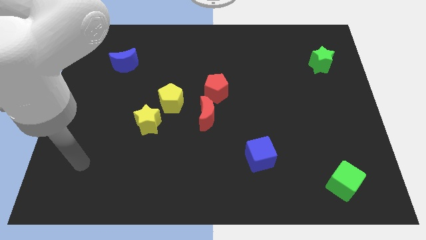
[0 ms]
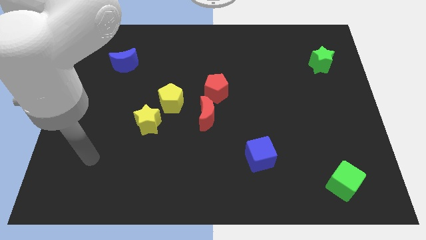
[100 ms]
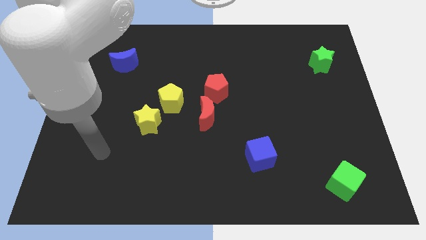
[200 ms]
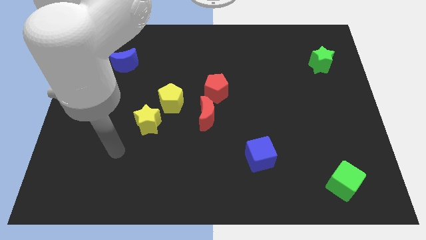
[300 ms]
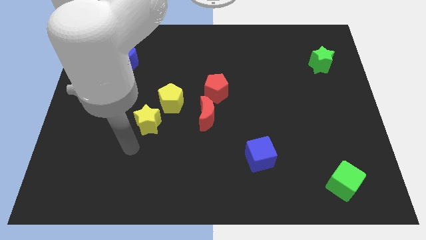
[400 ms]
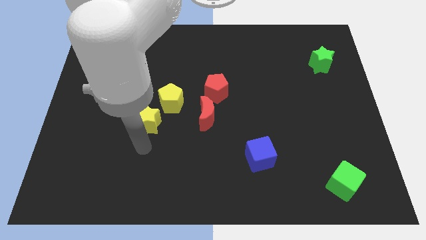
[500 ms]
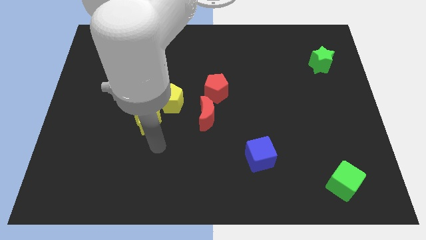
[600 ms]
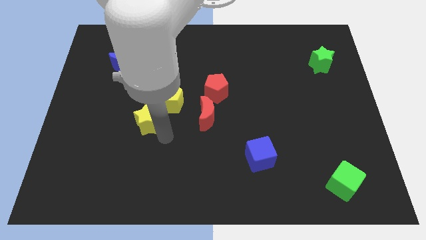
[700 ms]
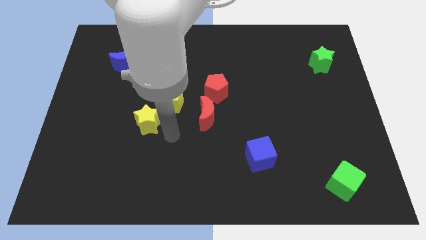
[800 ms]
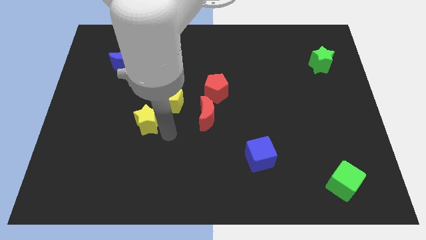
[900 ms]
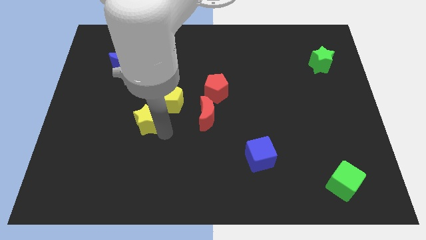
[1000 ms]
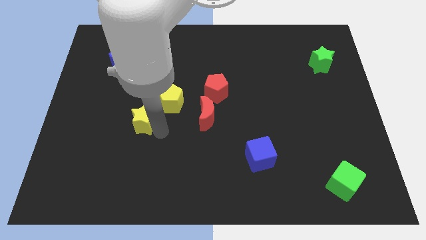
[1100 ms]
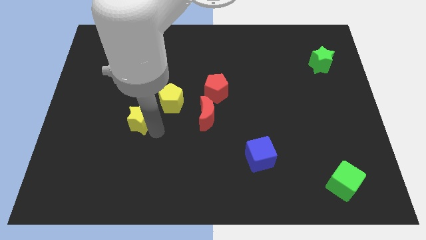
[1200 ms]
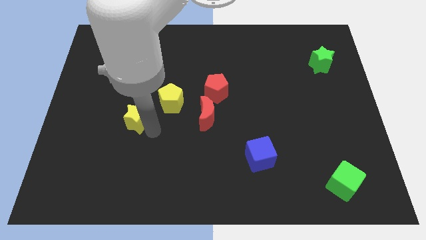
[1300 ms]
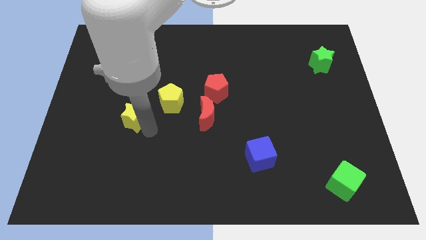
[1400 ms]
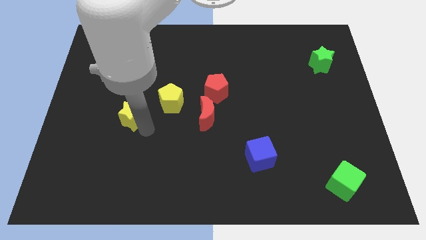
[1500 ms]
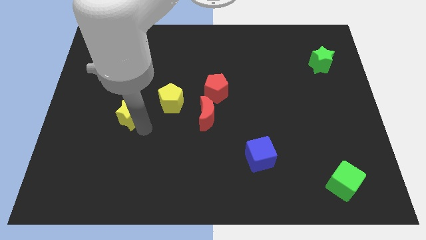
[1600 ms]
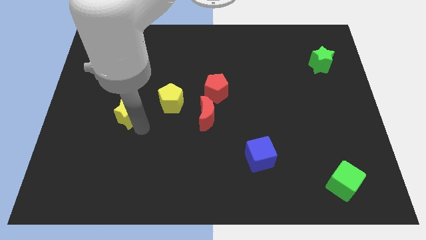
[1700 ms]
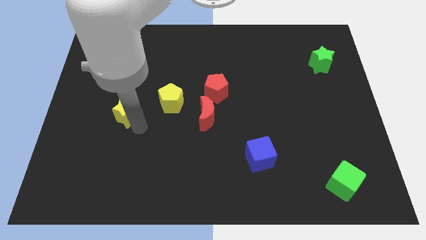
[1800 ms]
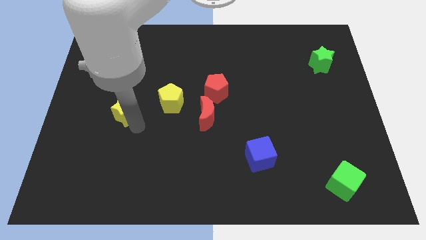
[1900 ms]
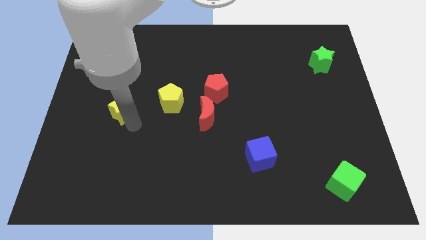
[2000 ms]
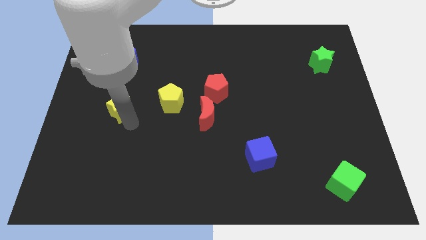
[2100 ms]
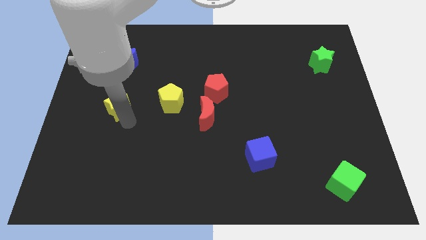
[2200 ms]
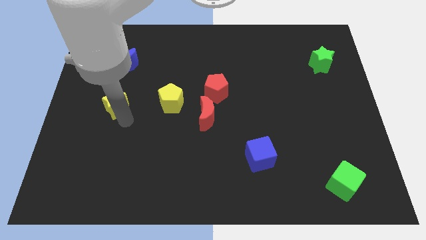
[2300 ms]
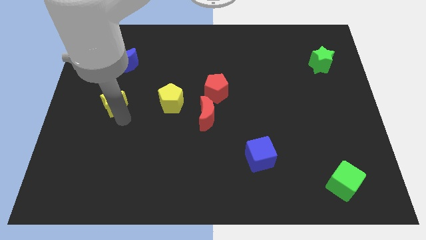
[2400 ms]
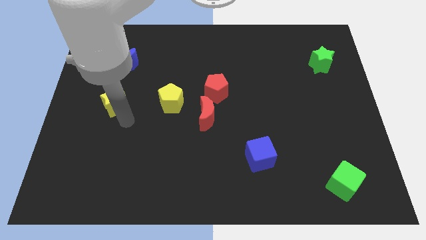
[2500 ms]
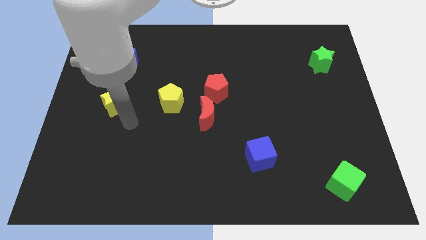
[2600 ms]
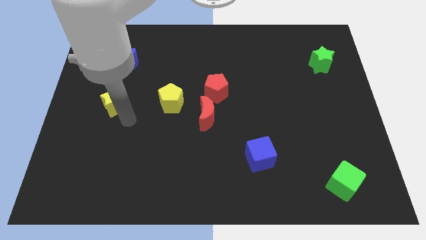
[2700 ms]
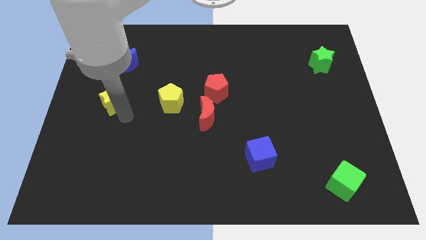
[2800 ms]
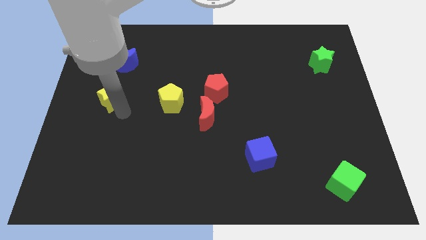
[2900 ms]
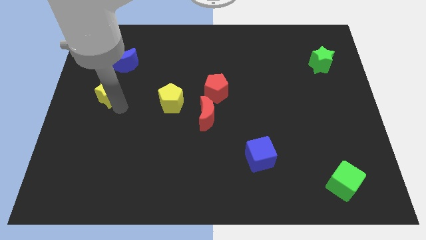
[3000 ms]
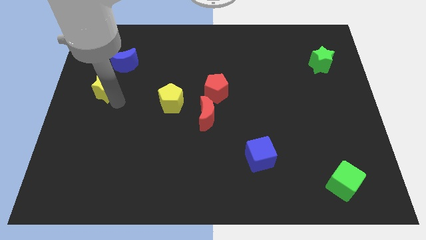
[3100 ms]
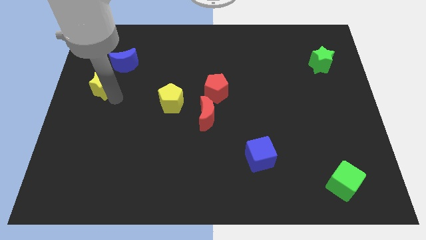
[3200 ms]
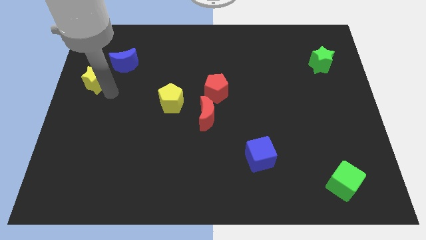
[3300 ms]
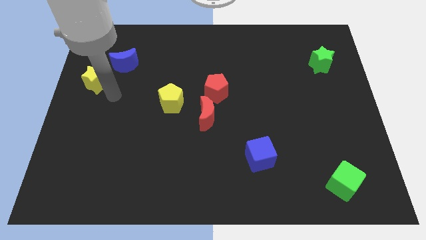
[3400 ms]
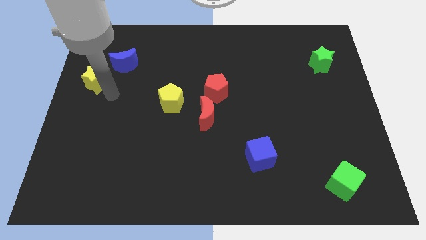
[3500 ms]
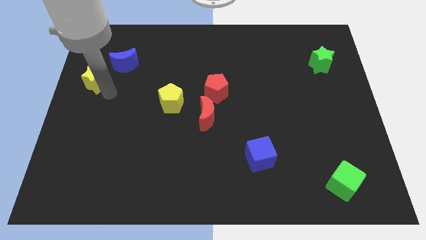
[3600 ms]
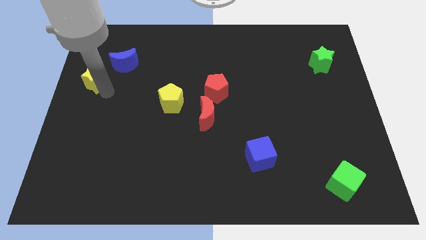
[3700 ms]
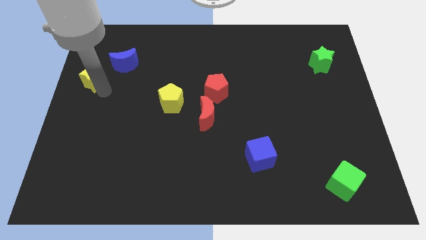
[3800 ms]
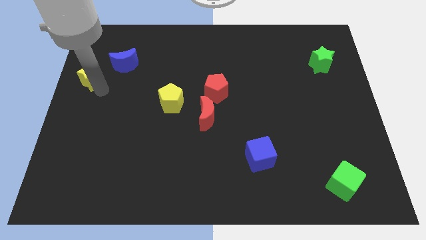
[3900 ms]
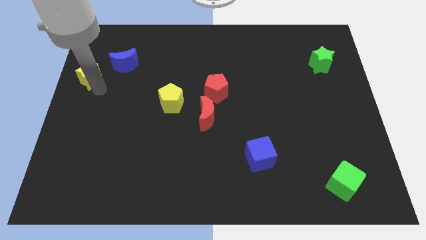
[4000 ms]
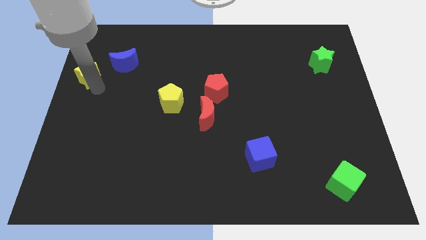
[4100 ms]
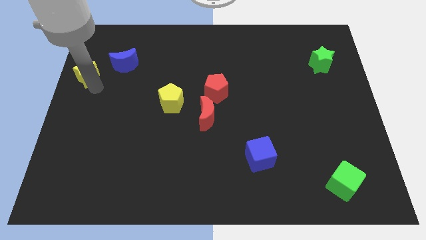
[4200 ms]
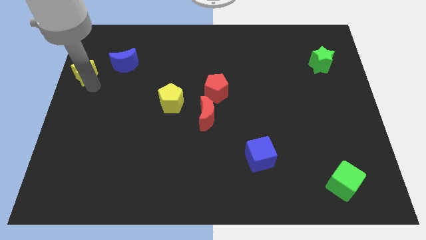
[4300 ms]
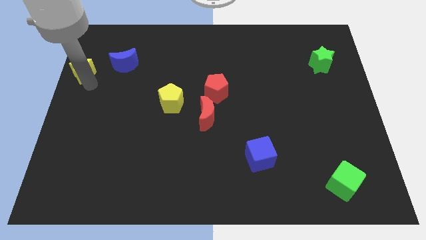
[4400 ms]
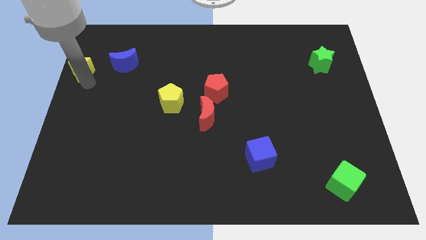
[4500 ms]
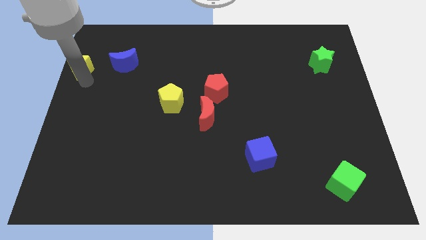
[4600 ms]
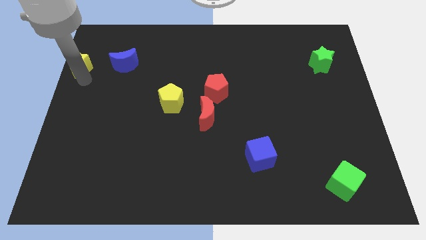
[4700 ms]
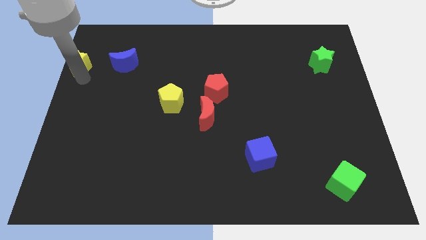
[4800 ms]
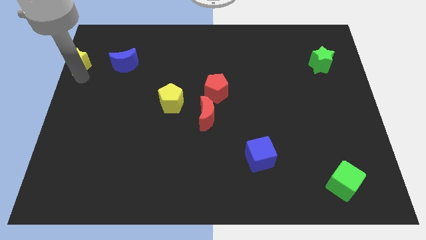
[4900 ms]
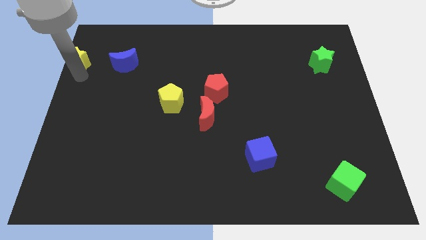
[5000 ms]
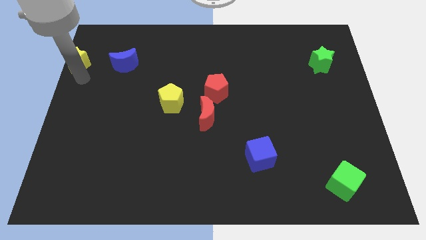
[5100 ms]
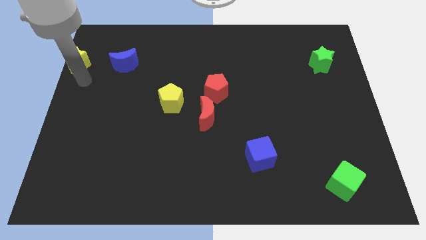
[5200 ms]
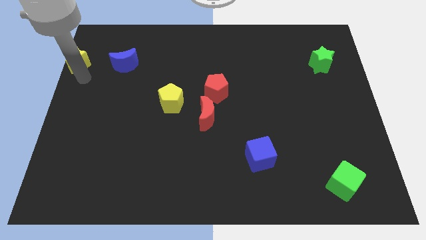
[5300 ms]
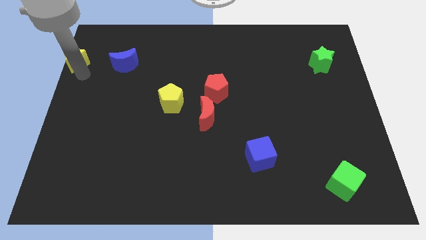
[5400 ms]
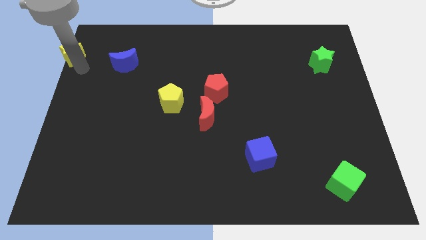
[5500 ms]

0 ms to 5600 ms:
move the yellow star to the top left corner

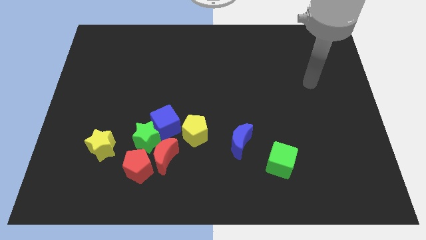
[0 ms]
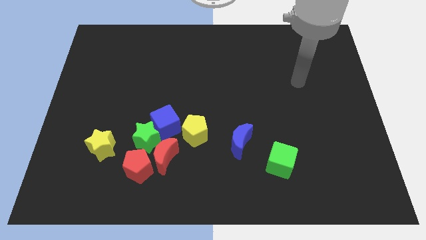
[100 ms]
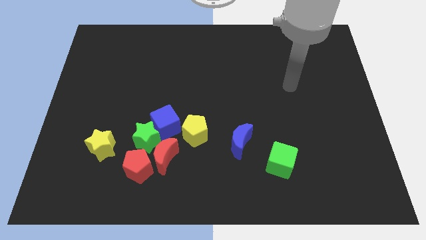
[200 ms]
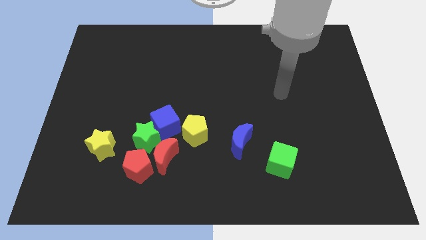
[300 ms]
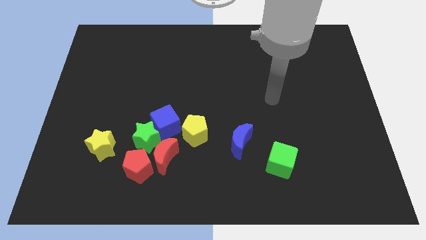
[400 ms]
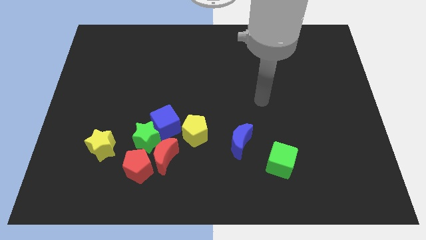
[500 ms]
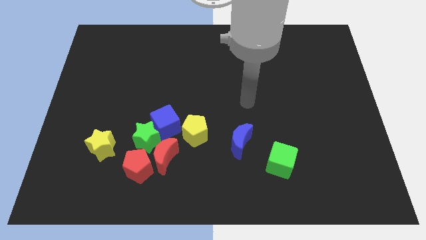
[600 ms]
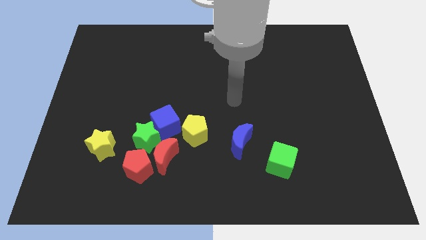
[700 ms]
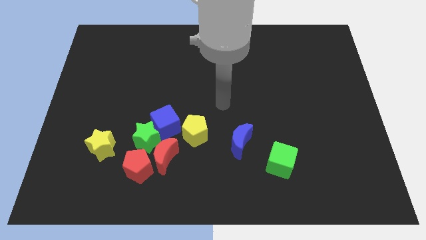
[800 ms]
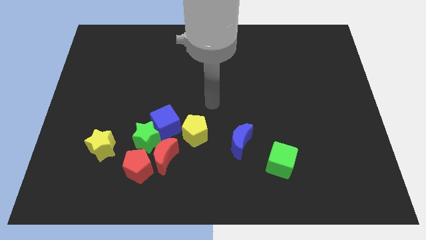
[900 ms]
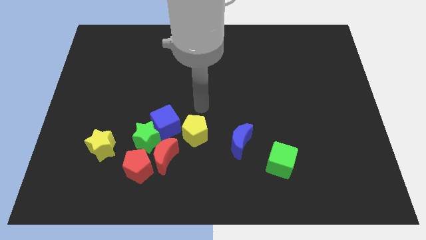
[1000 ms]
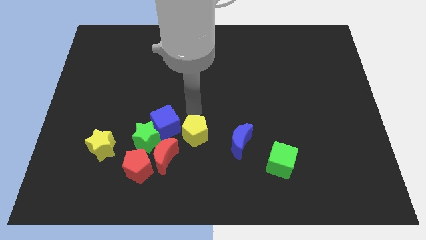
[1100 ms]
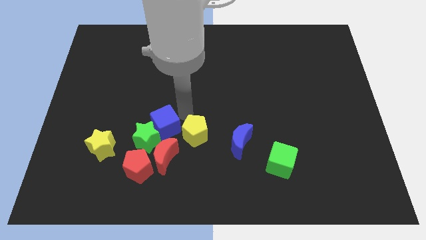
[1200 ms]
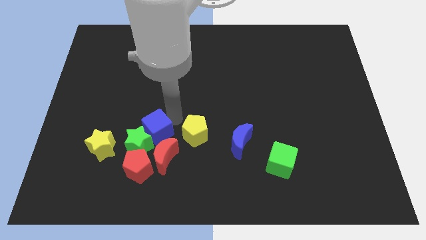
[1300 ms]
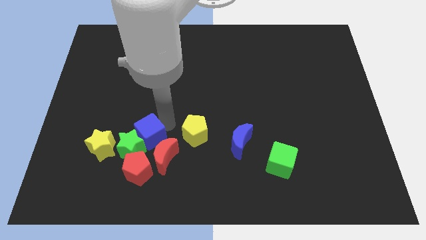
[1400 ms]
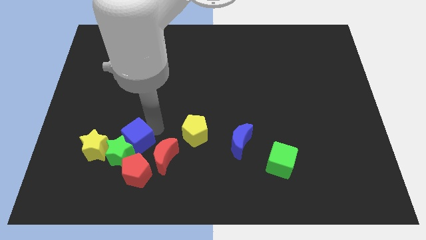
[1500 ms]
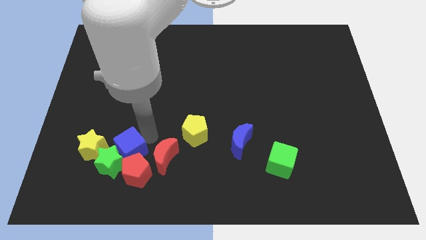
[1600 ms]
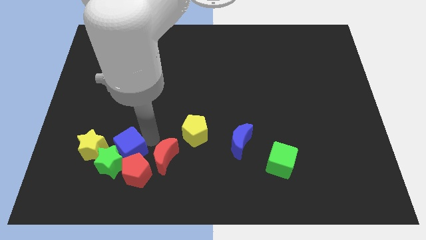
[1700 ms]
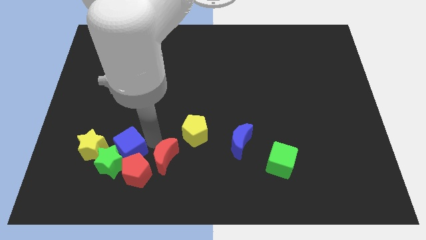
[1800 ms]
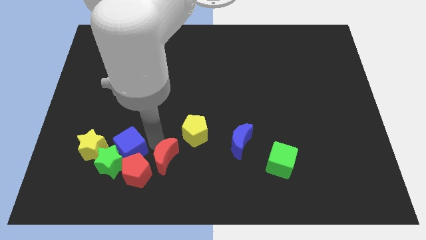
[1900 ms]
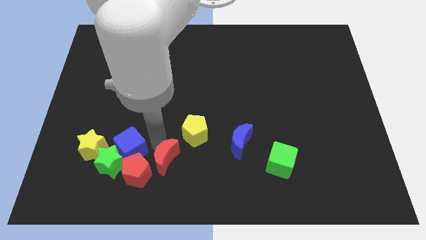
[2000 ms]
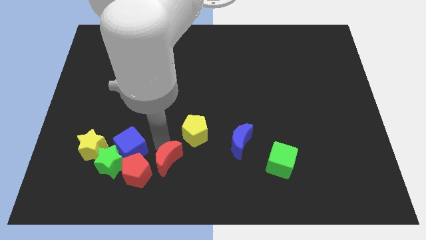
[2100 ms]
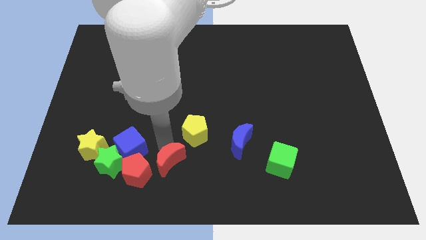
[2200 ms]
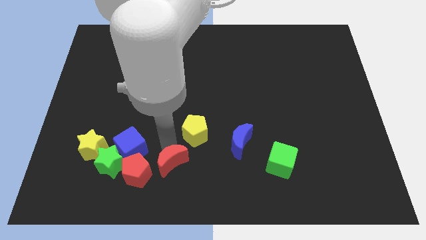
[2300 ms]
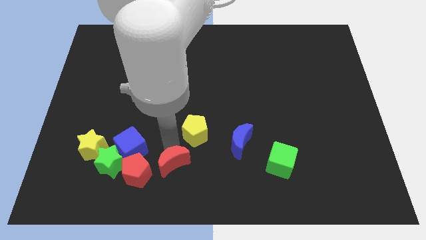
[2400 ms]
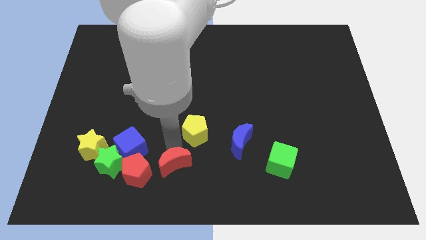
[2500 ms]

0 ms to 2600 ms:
move the red moon to the bottom
